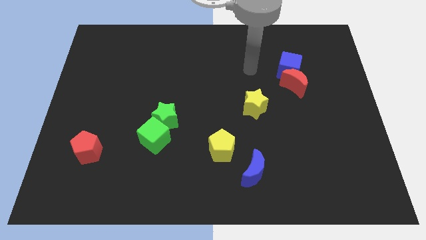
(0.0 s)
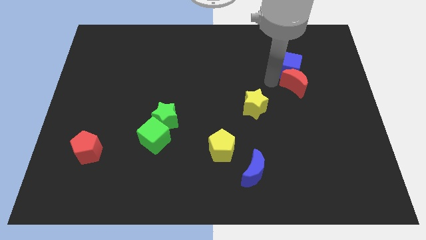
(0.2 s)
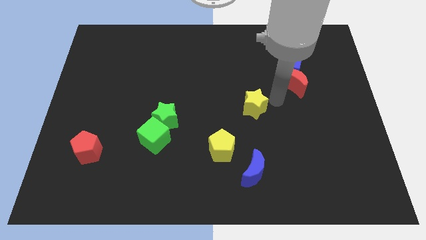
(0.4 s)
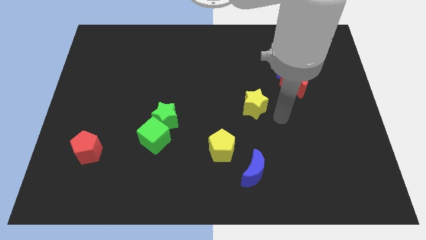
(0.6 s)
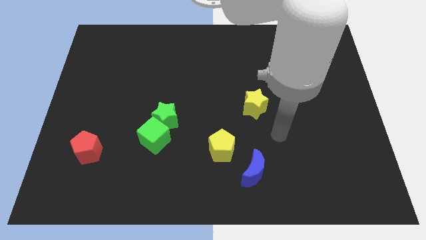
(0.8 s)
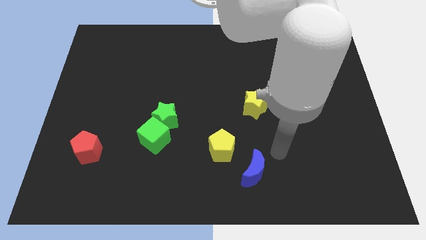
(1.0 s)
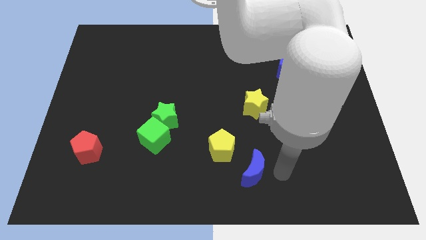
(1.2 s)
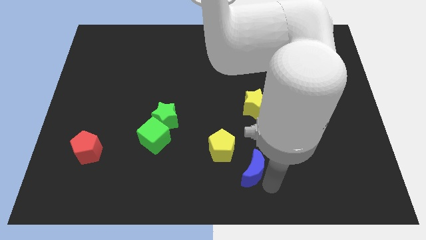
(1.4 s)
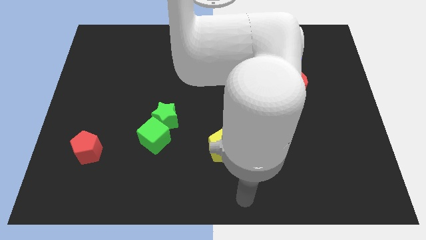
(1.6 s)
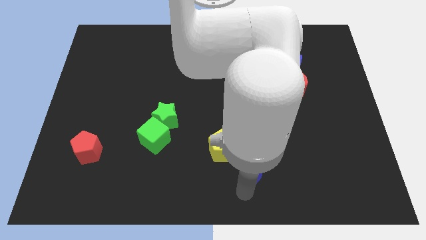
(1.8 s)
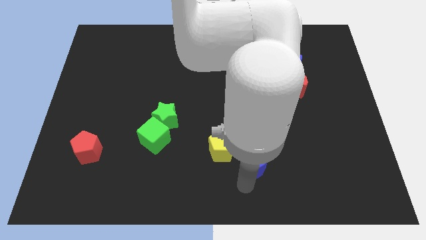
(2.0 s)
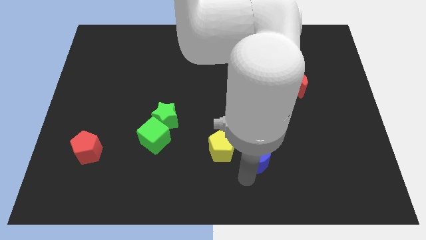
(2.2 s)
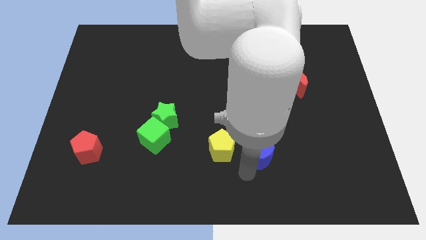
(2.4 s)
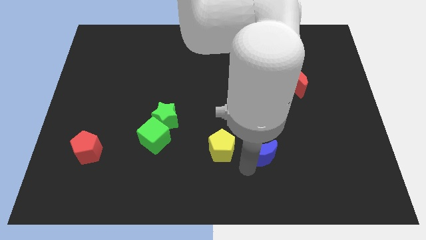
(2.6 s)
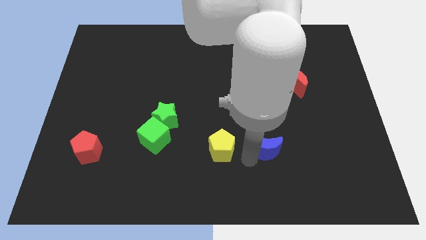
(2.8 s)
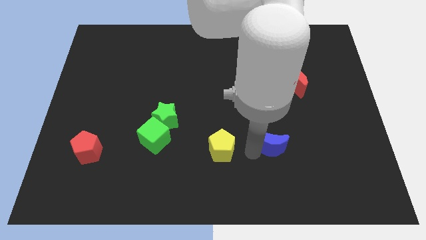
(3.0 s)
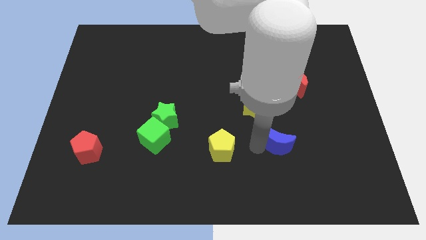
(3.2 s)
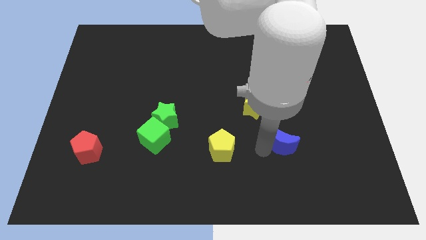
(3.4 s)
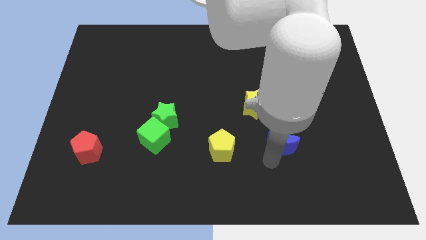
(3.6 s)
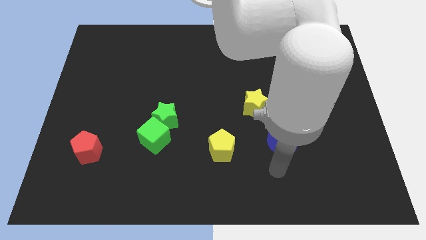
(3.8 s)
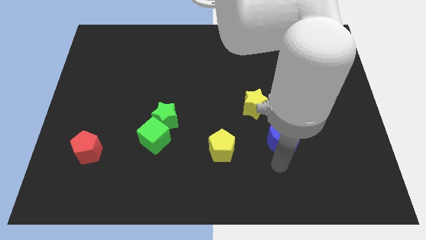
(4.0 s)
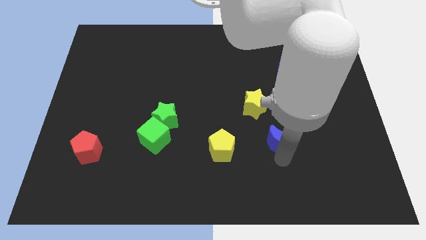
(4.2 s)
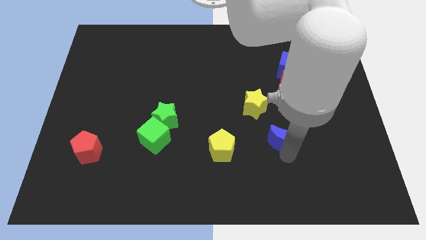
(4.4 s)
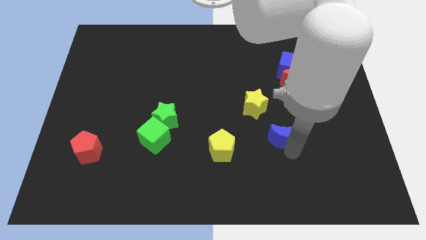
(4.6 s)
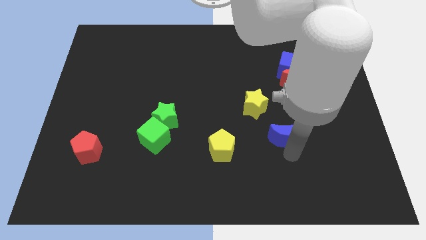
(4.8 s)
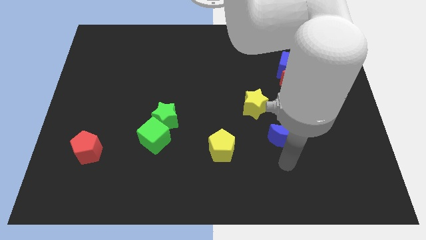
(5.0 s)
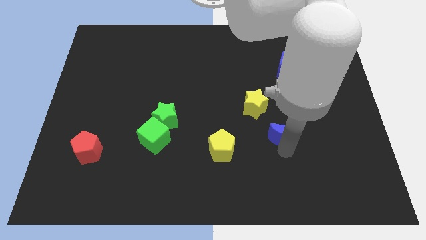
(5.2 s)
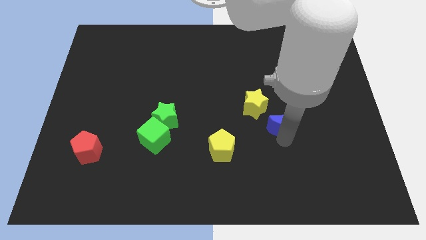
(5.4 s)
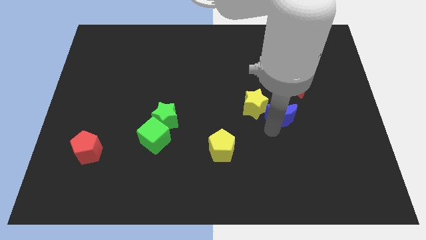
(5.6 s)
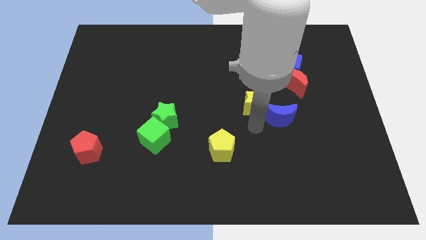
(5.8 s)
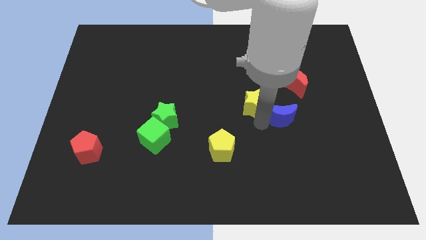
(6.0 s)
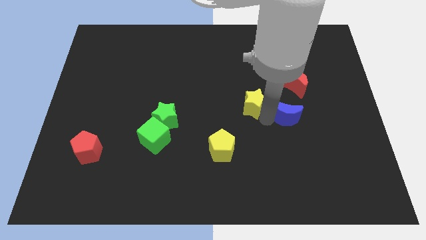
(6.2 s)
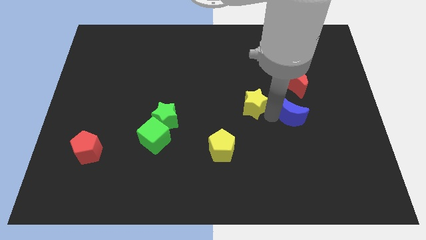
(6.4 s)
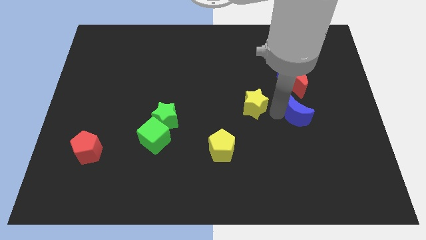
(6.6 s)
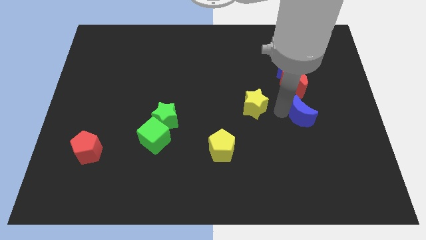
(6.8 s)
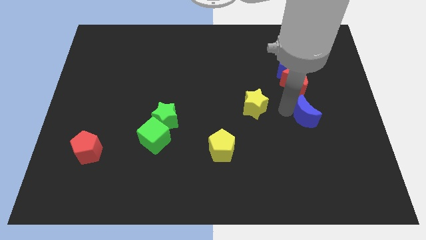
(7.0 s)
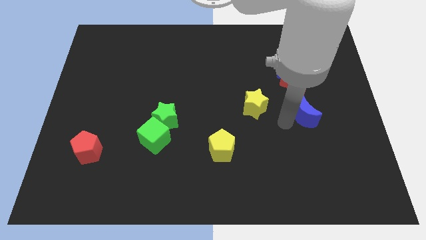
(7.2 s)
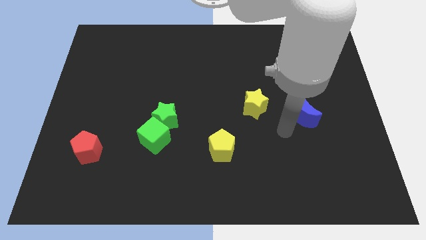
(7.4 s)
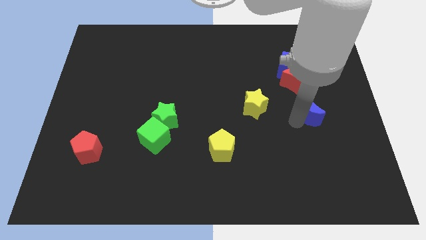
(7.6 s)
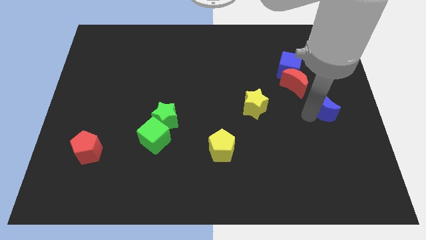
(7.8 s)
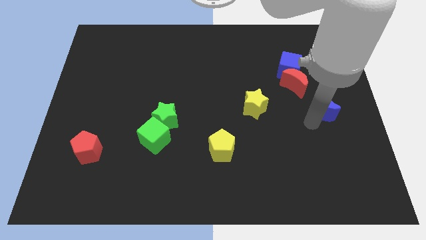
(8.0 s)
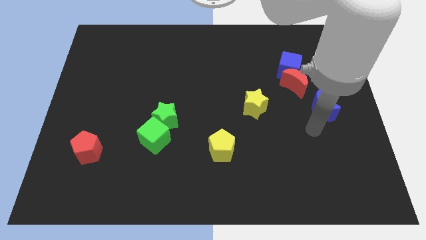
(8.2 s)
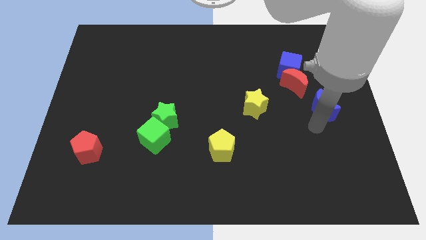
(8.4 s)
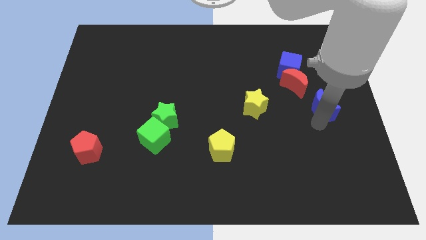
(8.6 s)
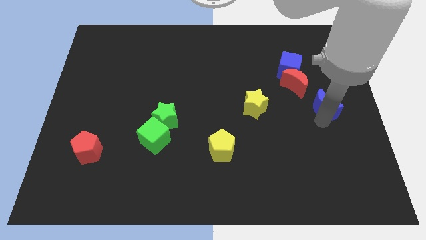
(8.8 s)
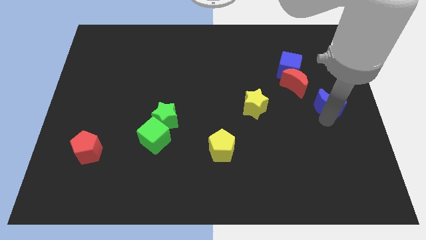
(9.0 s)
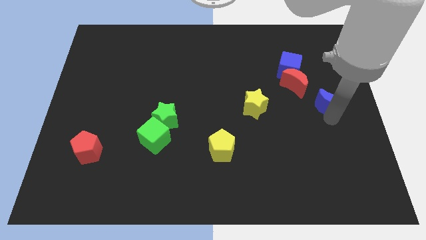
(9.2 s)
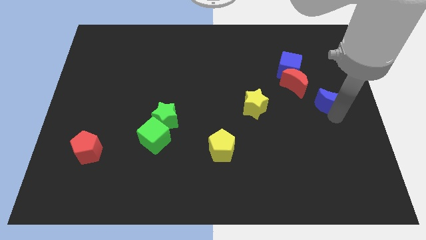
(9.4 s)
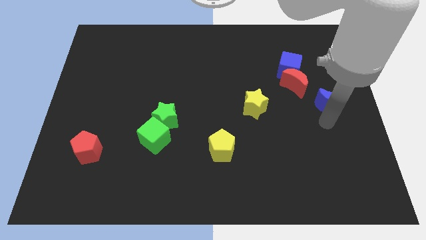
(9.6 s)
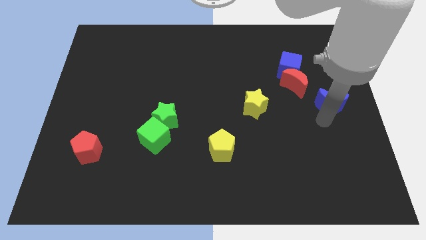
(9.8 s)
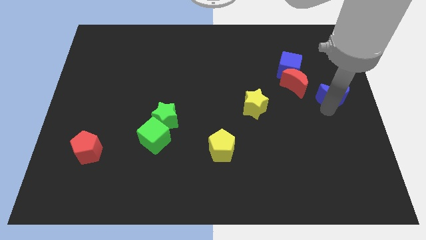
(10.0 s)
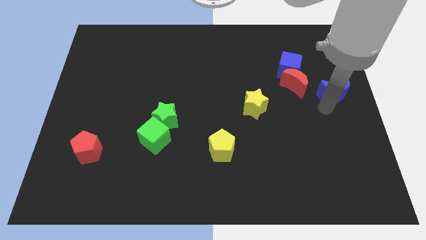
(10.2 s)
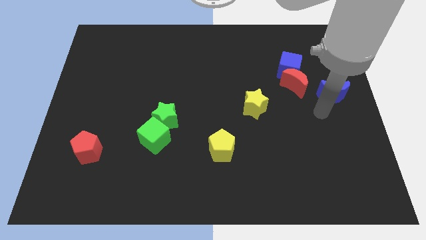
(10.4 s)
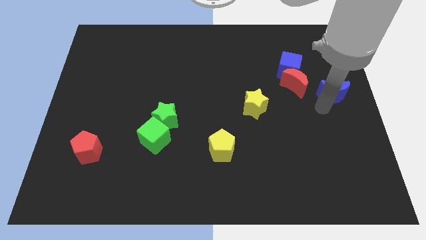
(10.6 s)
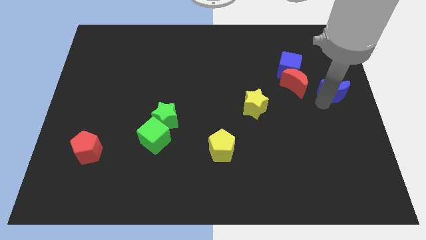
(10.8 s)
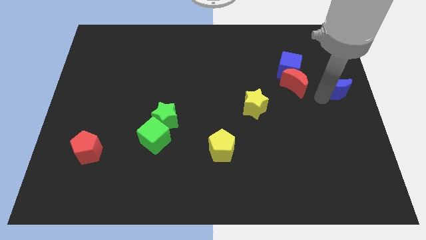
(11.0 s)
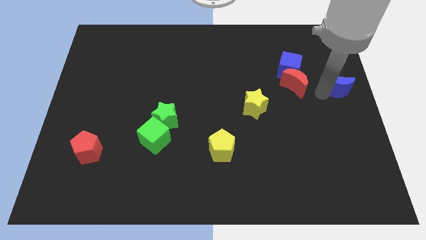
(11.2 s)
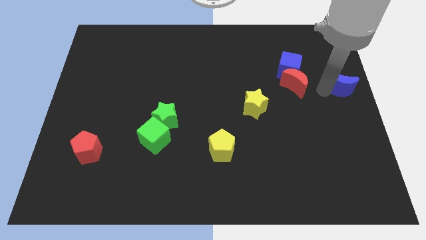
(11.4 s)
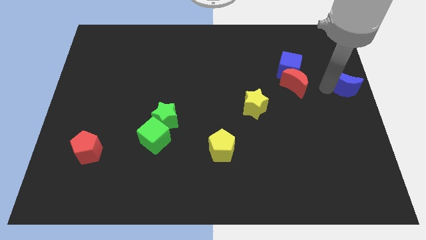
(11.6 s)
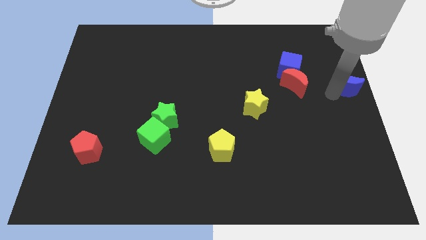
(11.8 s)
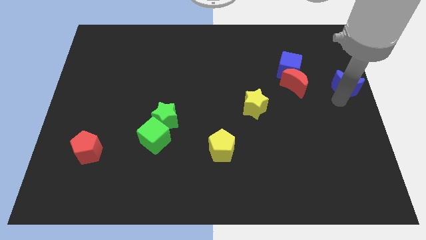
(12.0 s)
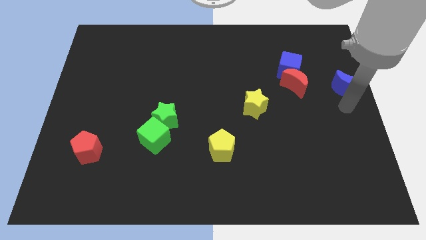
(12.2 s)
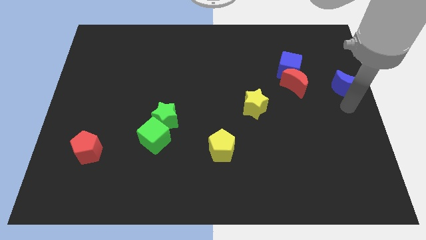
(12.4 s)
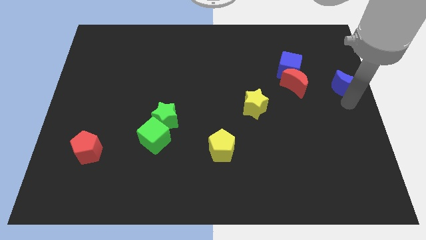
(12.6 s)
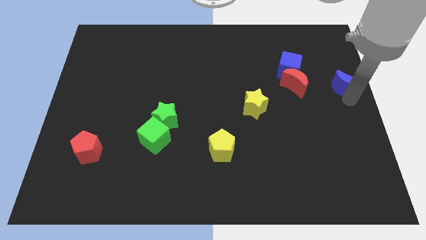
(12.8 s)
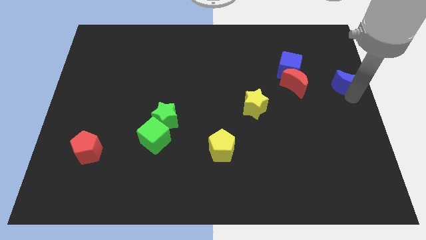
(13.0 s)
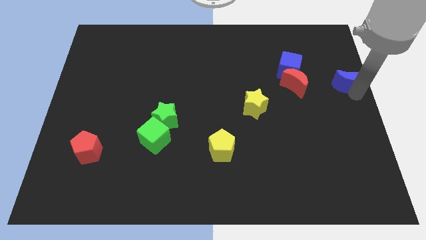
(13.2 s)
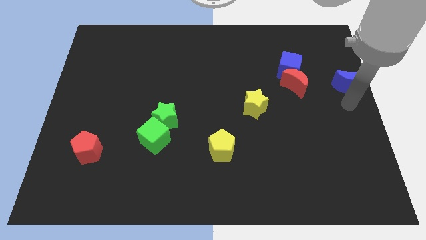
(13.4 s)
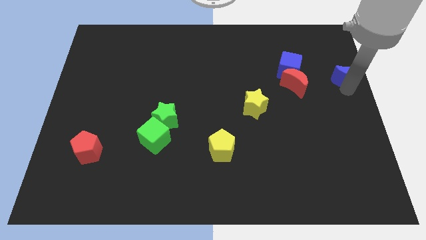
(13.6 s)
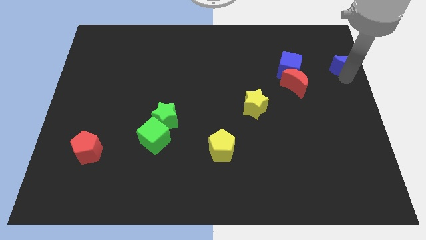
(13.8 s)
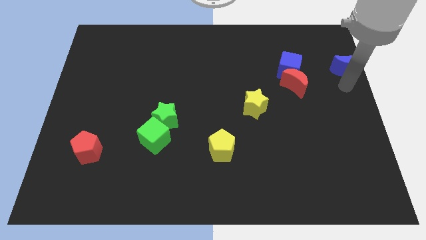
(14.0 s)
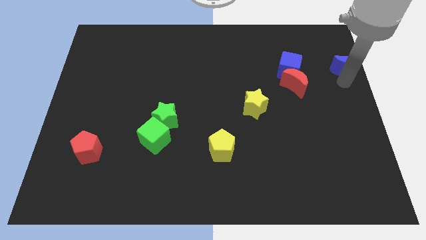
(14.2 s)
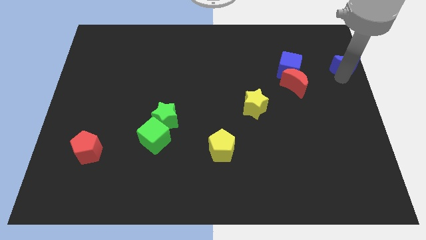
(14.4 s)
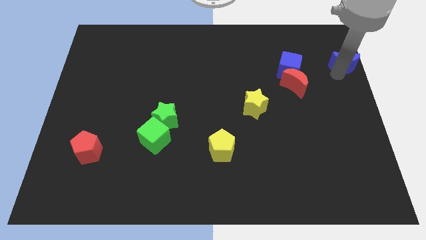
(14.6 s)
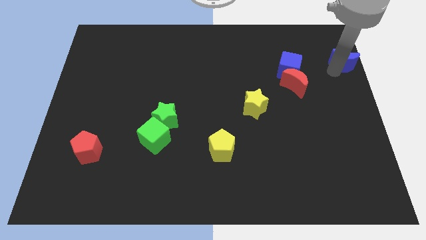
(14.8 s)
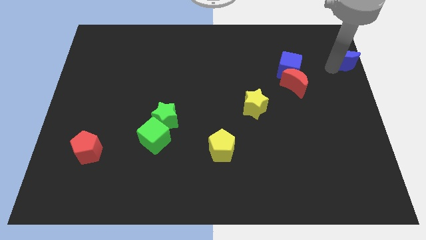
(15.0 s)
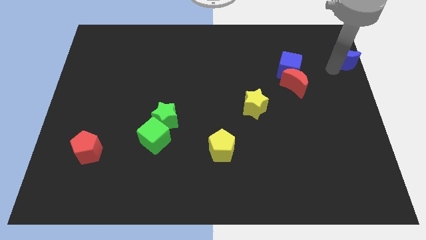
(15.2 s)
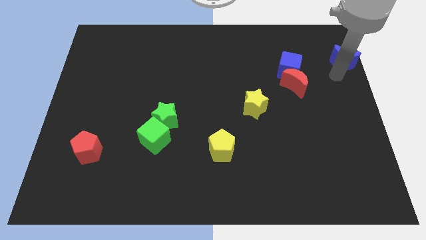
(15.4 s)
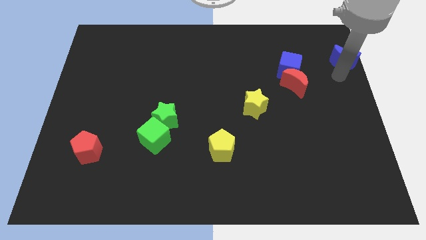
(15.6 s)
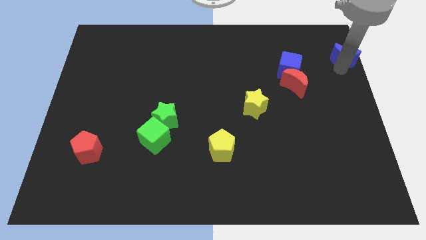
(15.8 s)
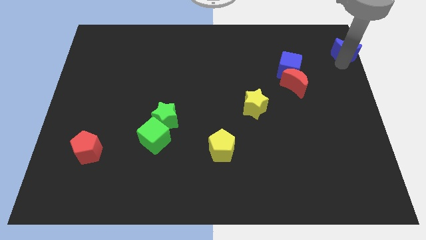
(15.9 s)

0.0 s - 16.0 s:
slide the blue moon to the top right
